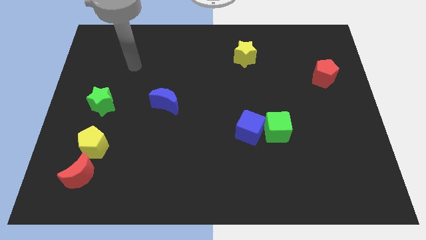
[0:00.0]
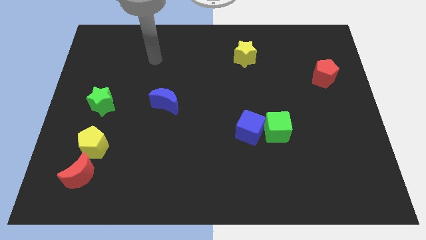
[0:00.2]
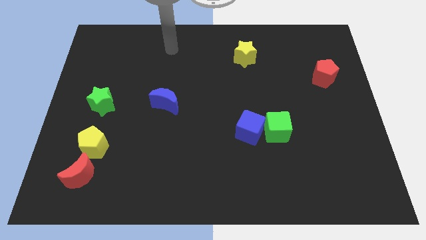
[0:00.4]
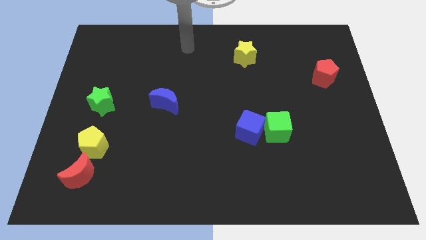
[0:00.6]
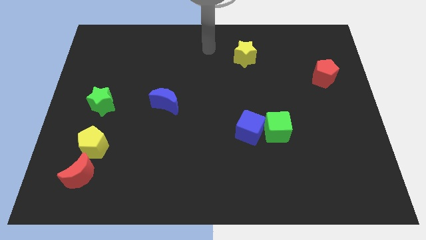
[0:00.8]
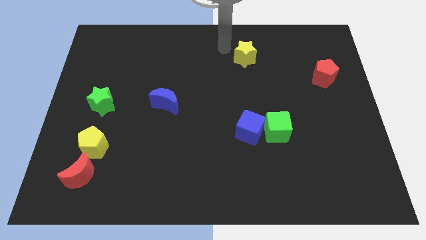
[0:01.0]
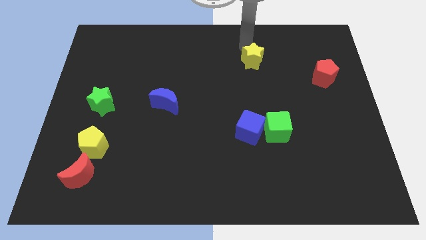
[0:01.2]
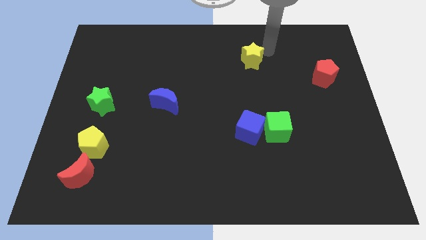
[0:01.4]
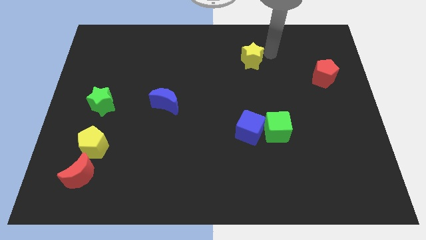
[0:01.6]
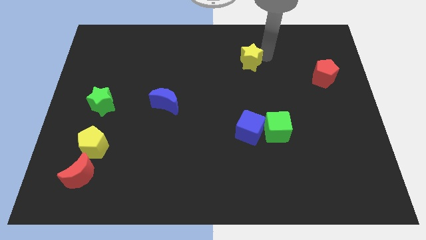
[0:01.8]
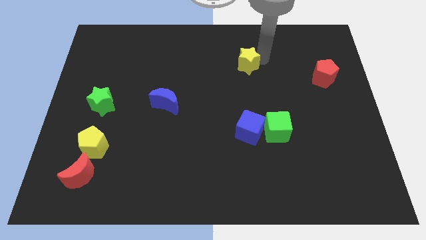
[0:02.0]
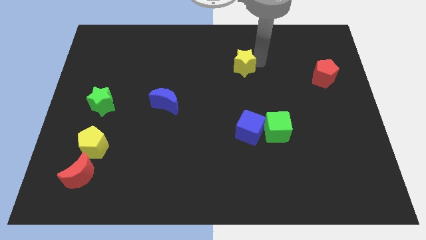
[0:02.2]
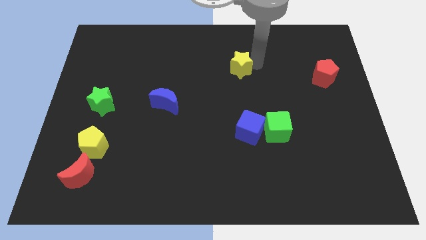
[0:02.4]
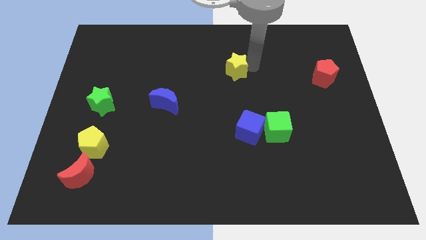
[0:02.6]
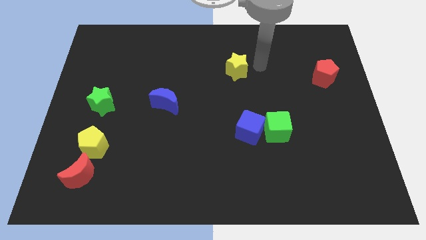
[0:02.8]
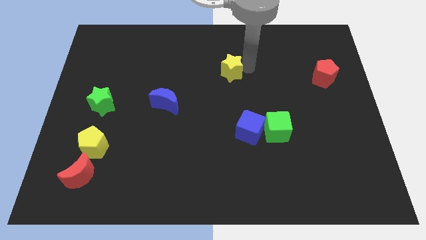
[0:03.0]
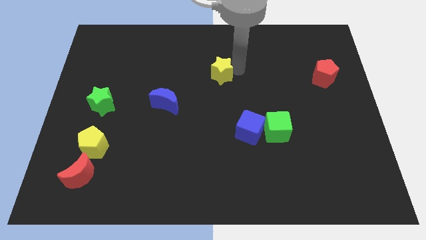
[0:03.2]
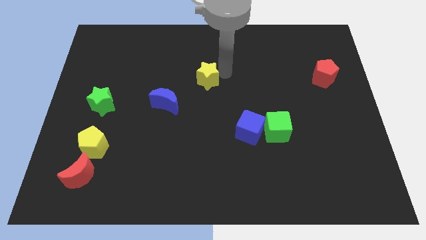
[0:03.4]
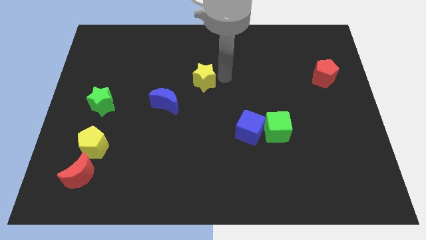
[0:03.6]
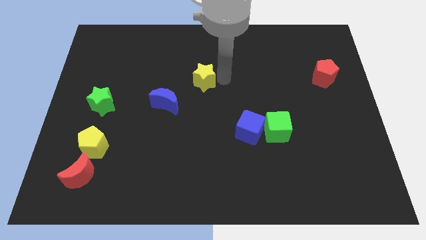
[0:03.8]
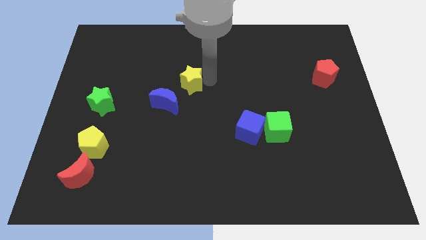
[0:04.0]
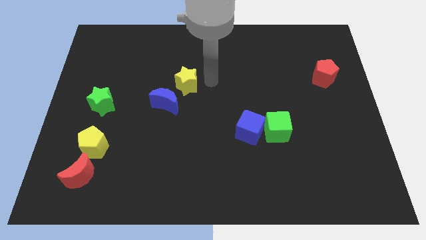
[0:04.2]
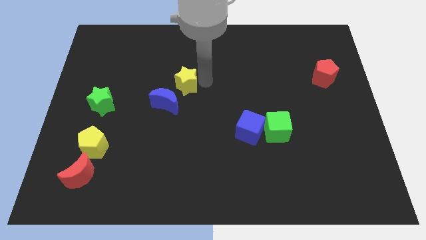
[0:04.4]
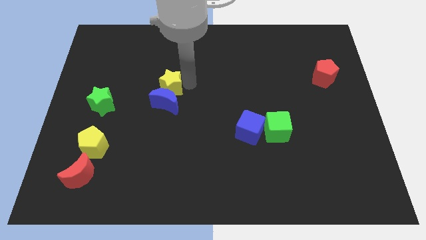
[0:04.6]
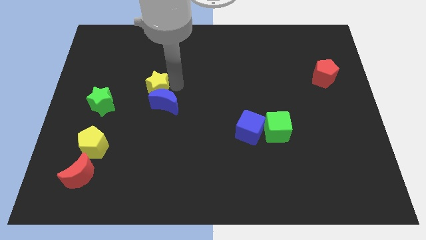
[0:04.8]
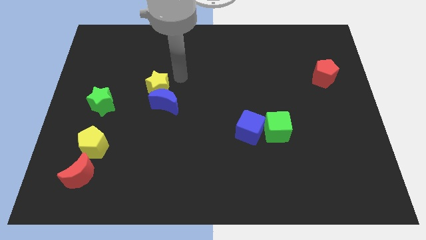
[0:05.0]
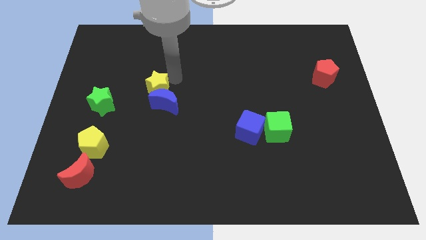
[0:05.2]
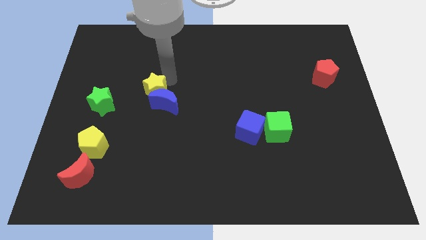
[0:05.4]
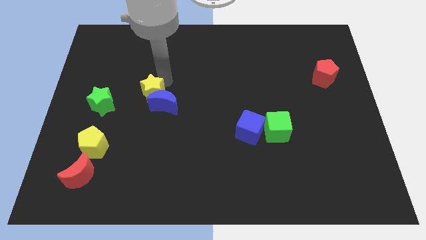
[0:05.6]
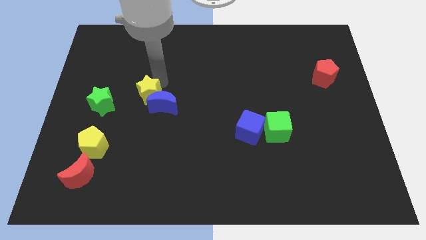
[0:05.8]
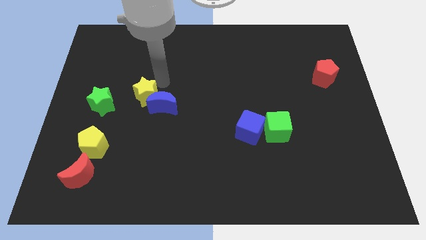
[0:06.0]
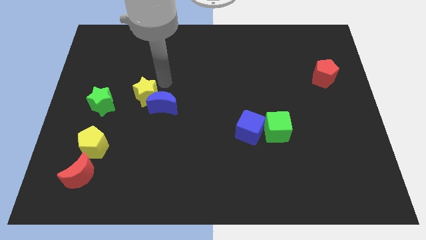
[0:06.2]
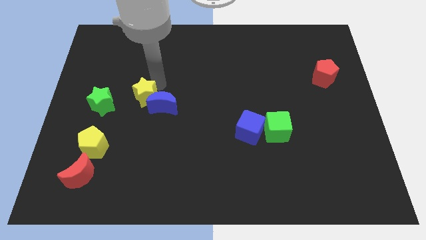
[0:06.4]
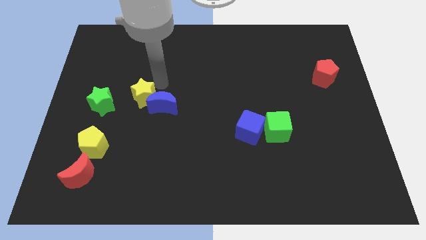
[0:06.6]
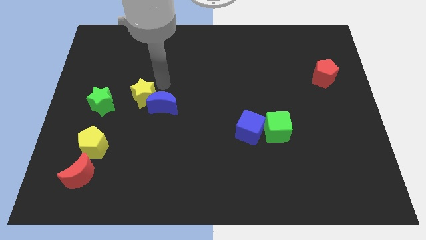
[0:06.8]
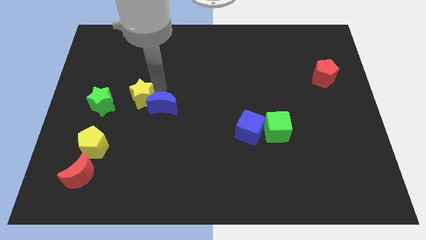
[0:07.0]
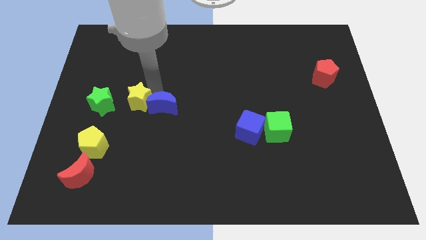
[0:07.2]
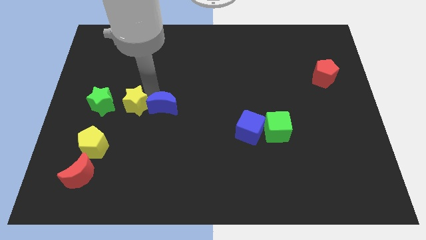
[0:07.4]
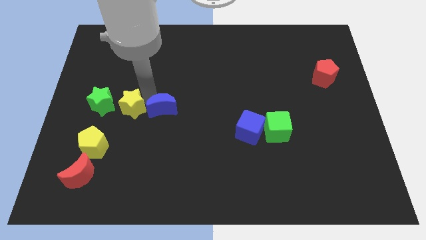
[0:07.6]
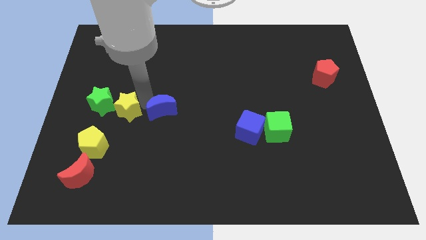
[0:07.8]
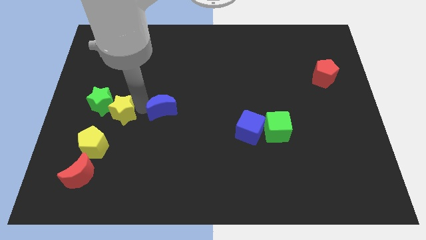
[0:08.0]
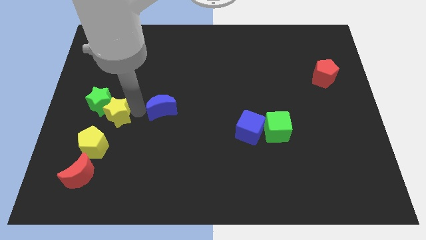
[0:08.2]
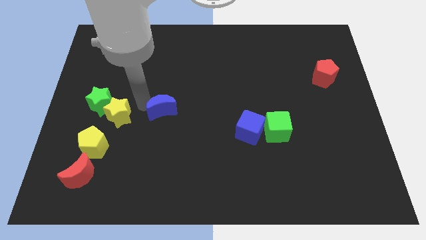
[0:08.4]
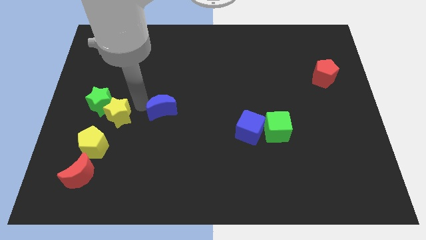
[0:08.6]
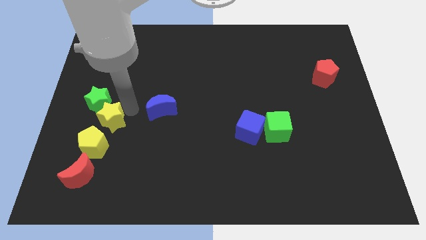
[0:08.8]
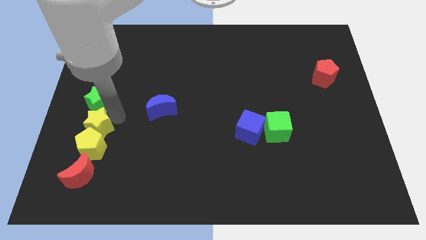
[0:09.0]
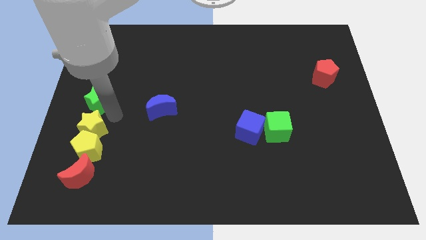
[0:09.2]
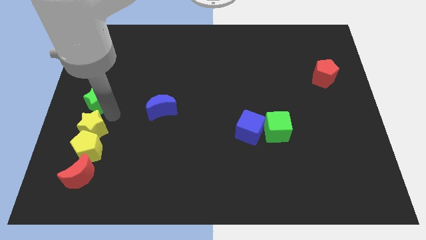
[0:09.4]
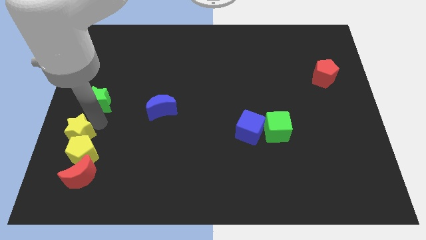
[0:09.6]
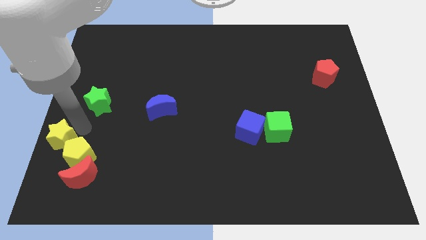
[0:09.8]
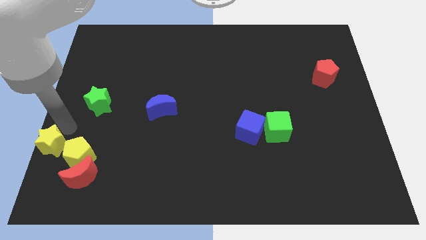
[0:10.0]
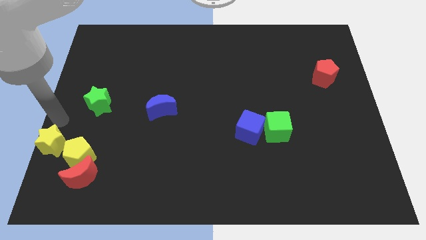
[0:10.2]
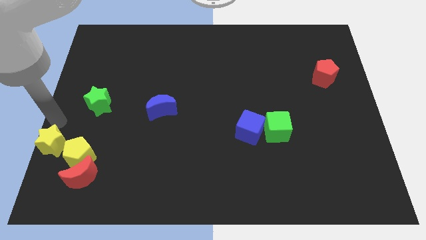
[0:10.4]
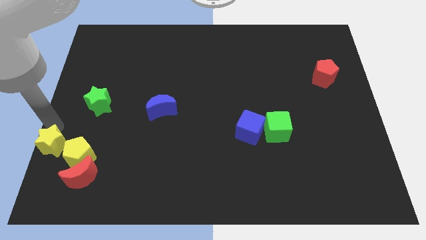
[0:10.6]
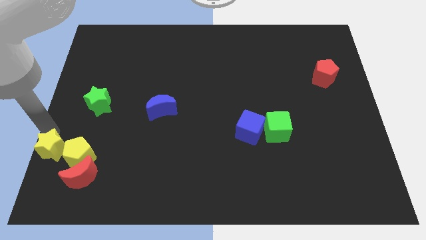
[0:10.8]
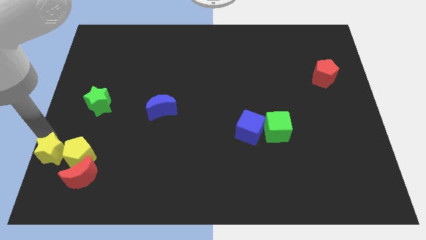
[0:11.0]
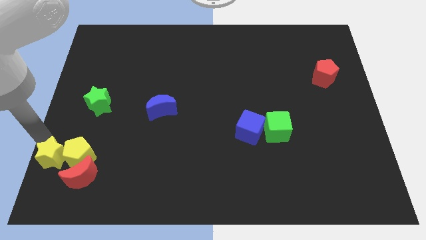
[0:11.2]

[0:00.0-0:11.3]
move the yellow star to the bottom left of the board
